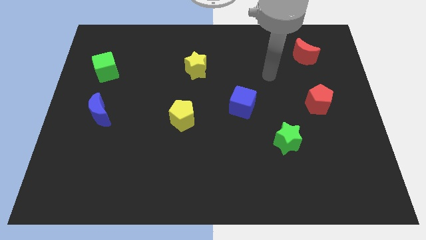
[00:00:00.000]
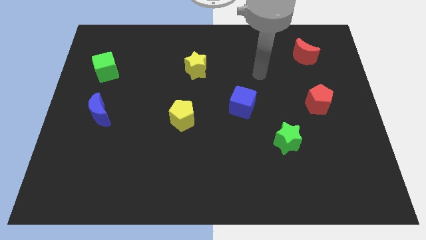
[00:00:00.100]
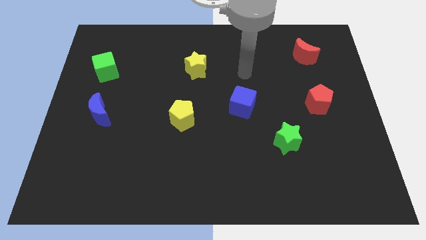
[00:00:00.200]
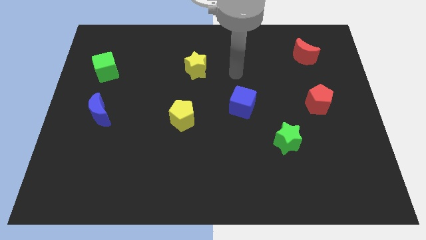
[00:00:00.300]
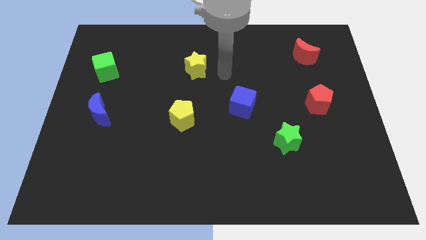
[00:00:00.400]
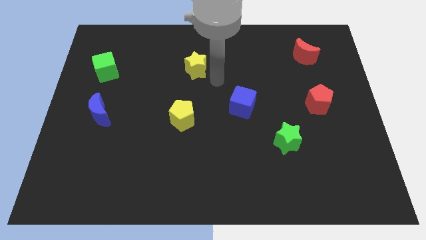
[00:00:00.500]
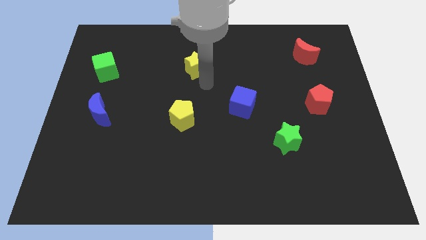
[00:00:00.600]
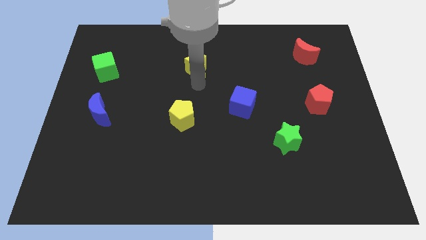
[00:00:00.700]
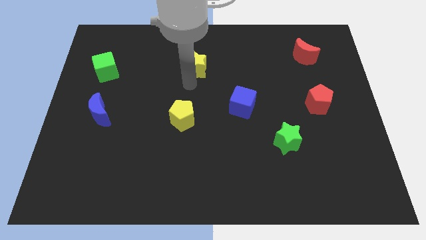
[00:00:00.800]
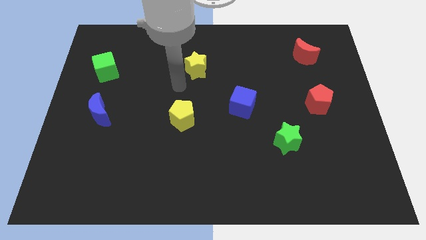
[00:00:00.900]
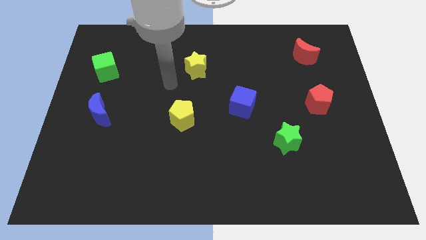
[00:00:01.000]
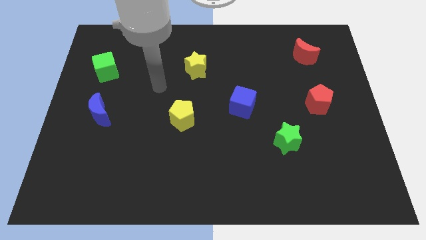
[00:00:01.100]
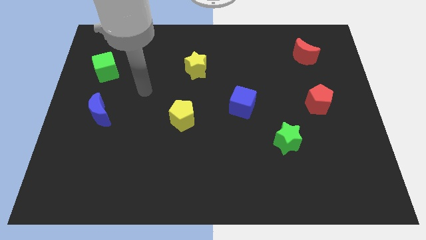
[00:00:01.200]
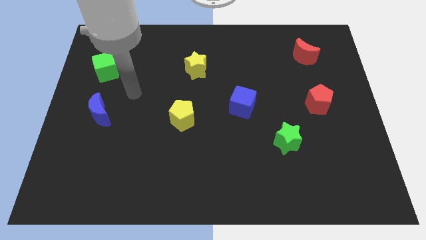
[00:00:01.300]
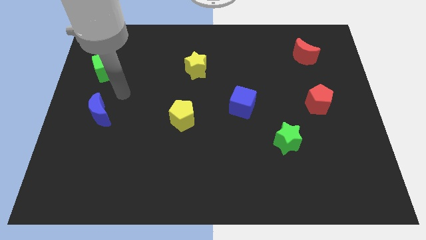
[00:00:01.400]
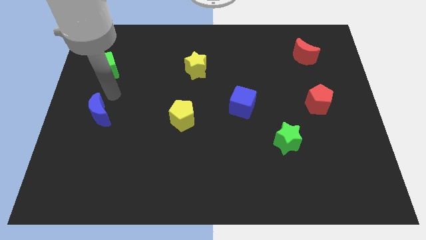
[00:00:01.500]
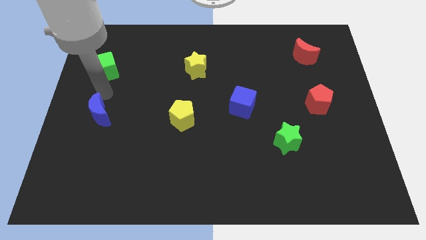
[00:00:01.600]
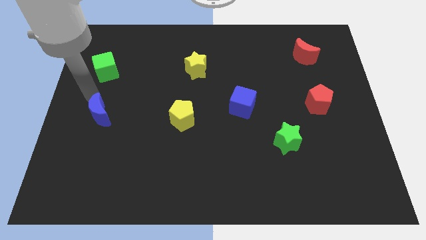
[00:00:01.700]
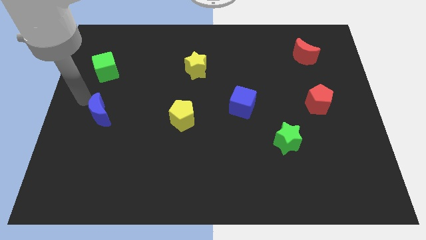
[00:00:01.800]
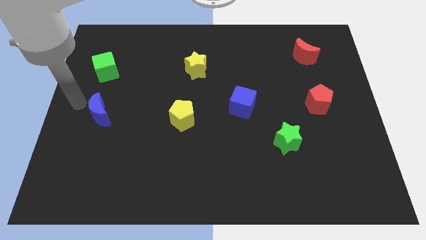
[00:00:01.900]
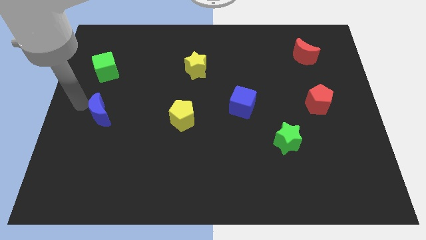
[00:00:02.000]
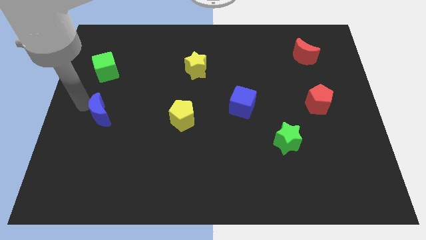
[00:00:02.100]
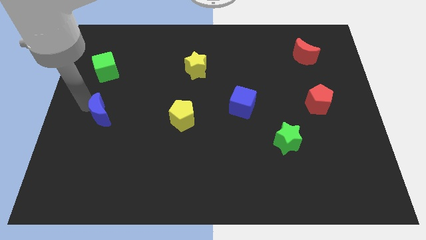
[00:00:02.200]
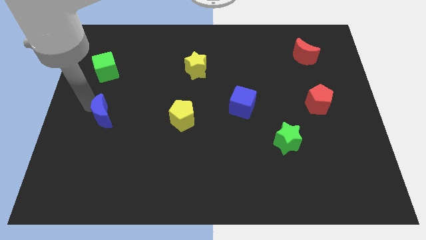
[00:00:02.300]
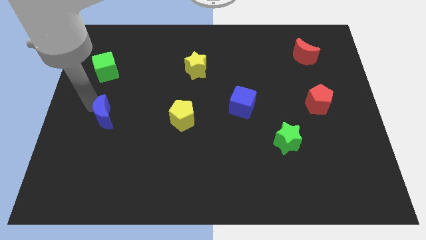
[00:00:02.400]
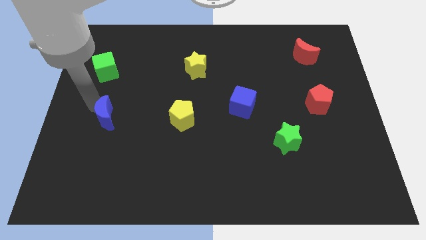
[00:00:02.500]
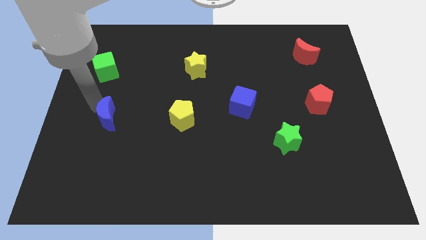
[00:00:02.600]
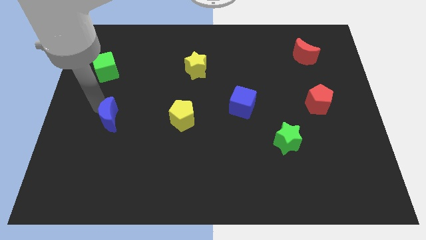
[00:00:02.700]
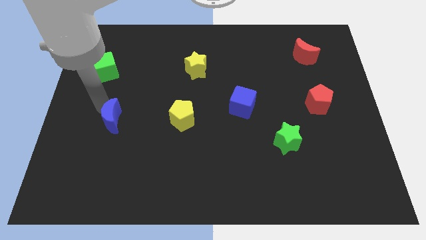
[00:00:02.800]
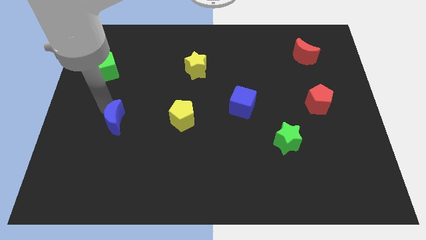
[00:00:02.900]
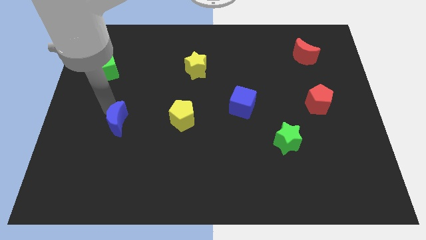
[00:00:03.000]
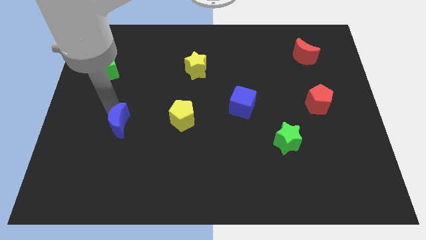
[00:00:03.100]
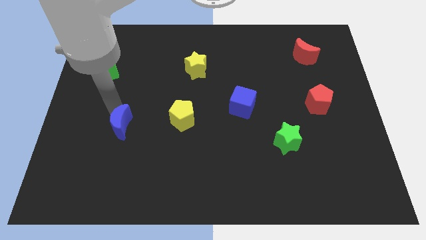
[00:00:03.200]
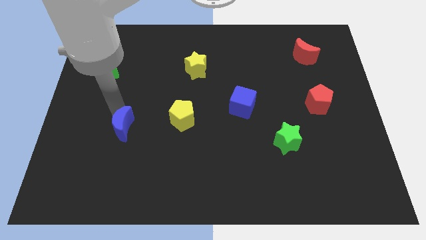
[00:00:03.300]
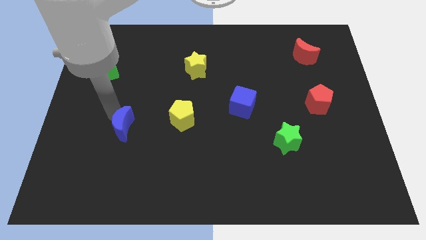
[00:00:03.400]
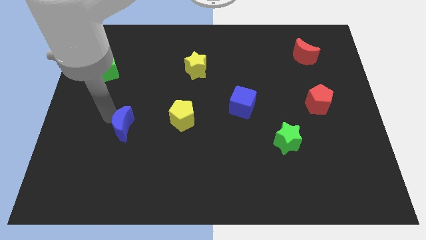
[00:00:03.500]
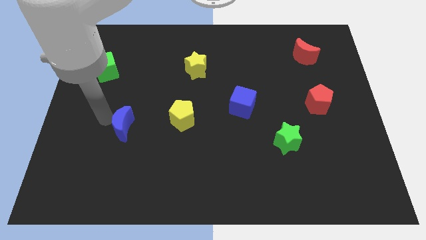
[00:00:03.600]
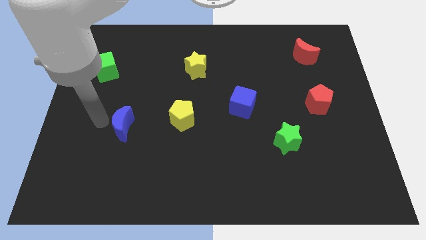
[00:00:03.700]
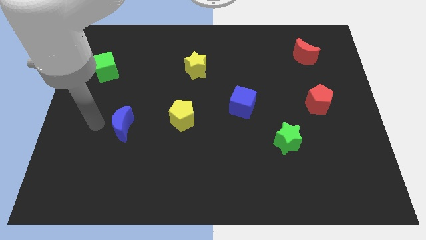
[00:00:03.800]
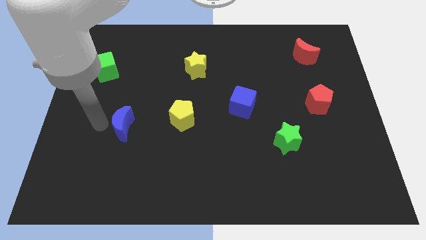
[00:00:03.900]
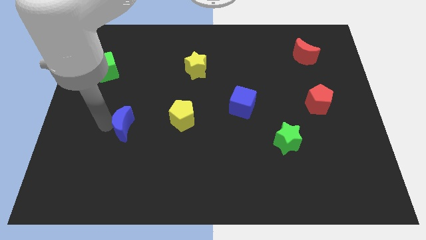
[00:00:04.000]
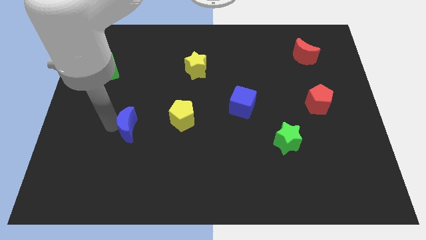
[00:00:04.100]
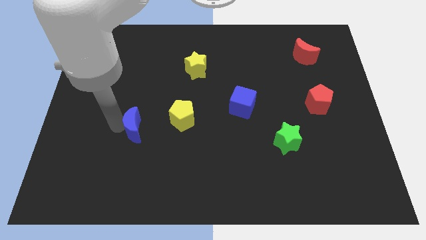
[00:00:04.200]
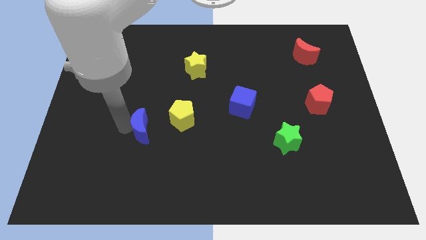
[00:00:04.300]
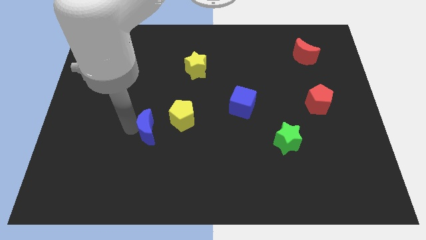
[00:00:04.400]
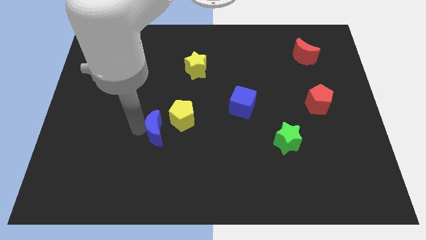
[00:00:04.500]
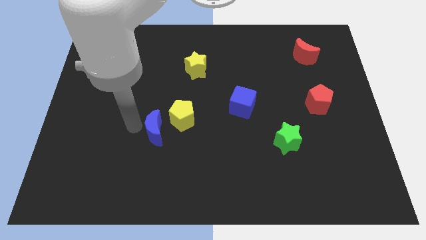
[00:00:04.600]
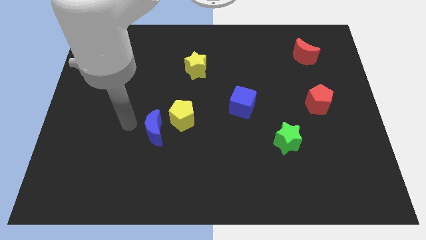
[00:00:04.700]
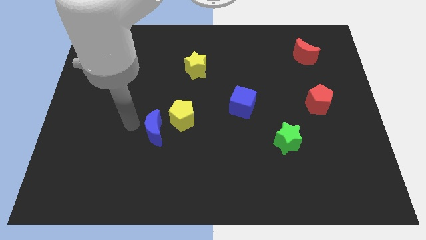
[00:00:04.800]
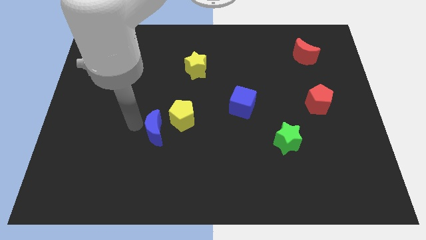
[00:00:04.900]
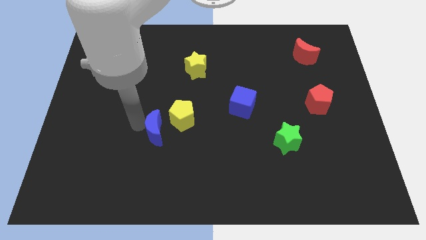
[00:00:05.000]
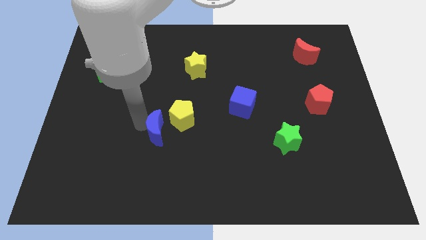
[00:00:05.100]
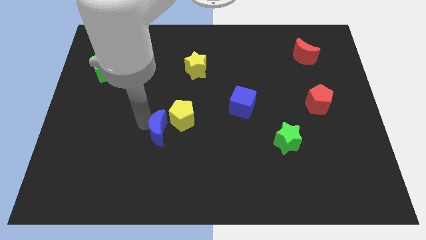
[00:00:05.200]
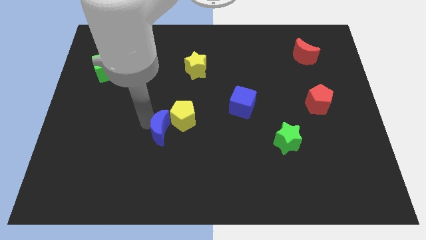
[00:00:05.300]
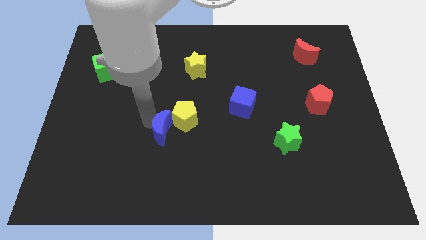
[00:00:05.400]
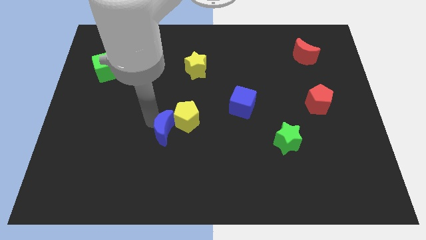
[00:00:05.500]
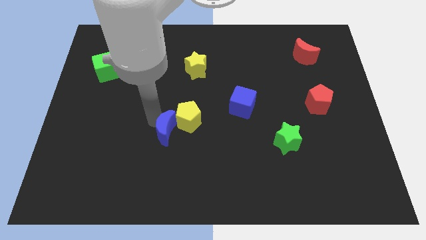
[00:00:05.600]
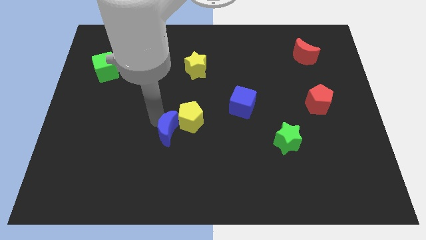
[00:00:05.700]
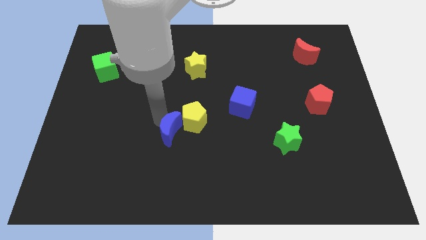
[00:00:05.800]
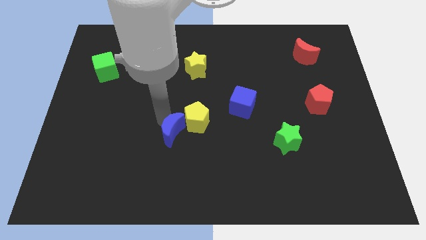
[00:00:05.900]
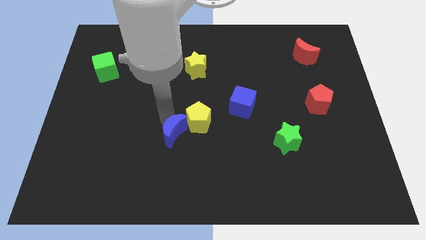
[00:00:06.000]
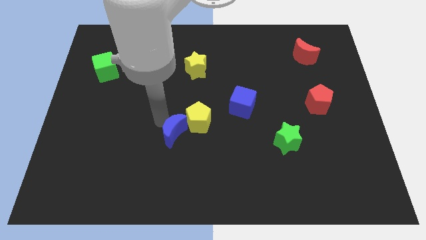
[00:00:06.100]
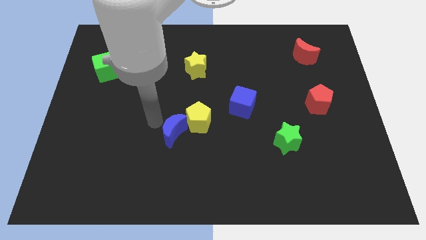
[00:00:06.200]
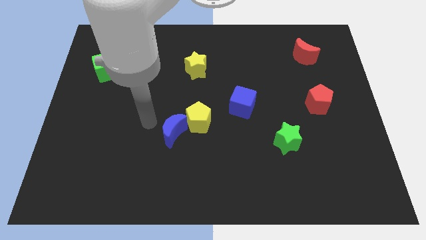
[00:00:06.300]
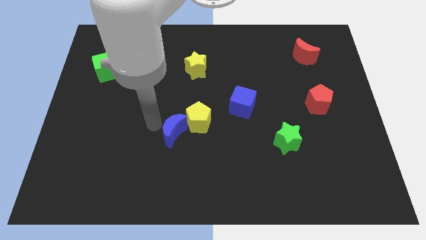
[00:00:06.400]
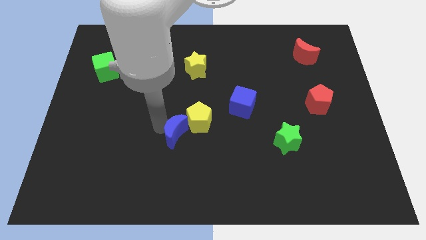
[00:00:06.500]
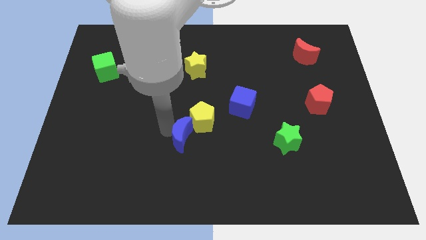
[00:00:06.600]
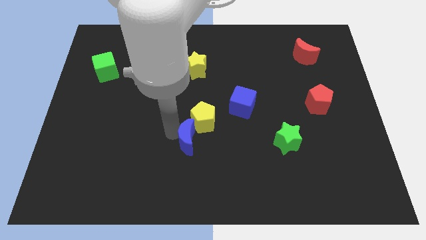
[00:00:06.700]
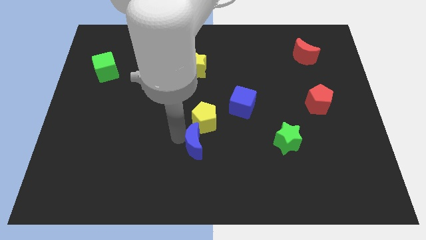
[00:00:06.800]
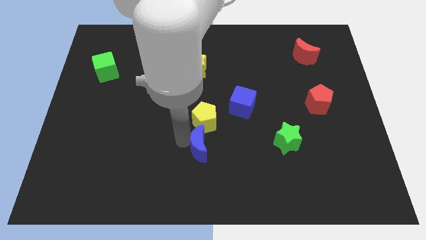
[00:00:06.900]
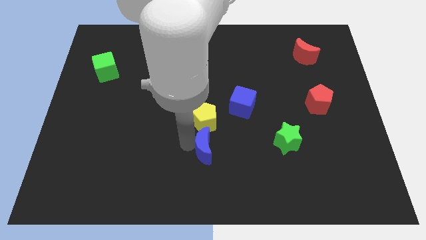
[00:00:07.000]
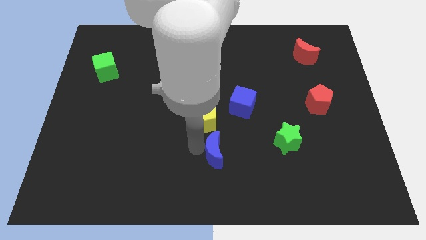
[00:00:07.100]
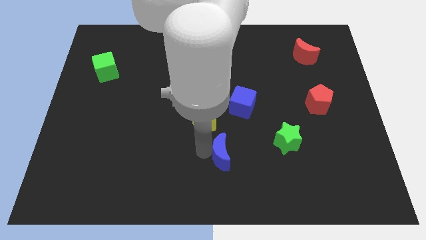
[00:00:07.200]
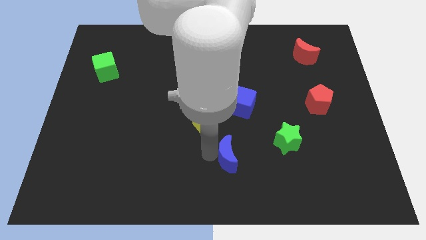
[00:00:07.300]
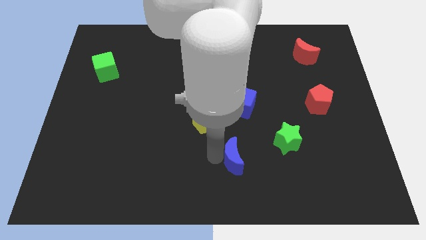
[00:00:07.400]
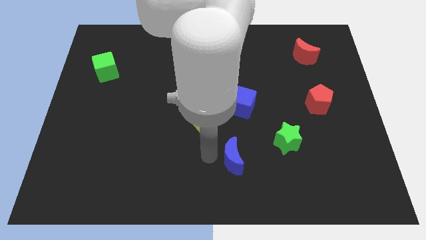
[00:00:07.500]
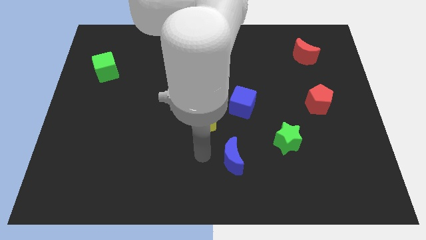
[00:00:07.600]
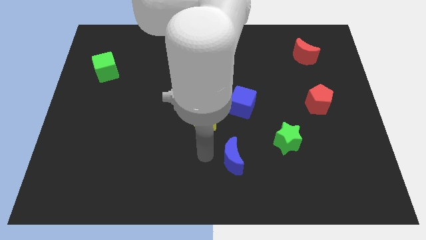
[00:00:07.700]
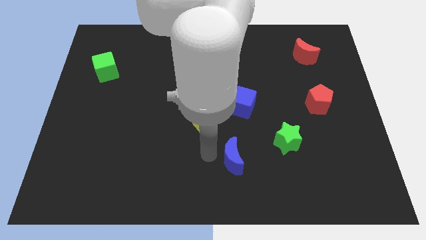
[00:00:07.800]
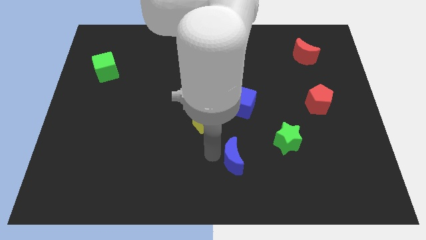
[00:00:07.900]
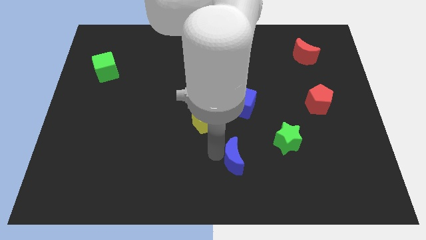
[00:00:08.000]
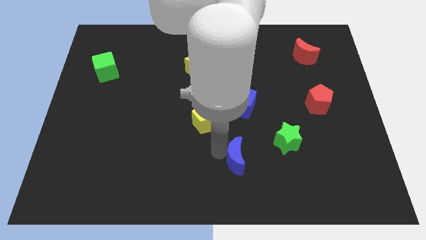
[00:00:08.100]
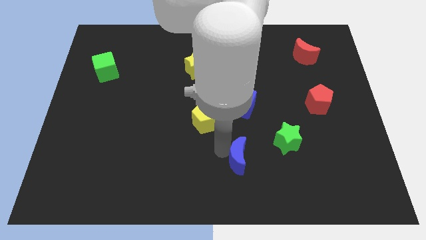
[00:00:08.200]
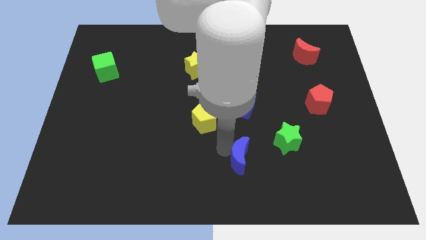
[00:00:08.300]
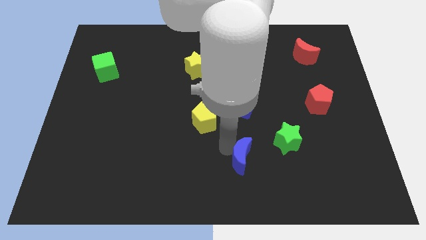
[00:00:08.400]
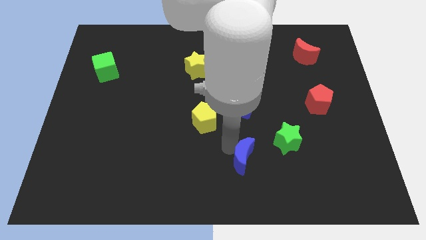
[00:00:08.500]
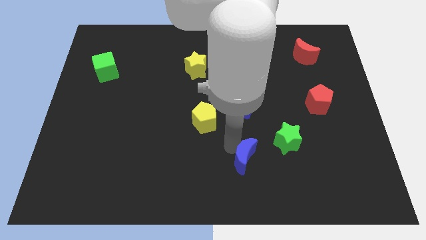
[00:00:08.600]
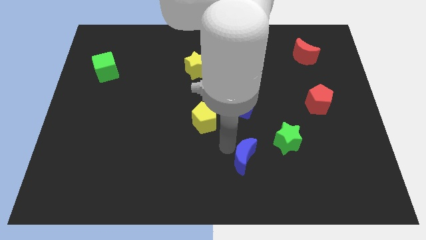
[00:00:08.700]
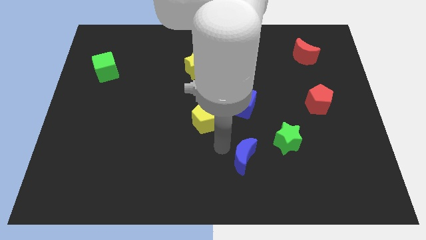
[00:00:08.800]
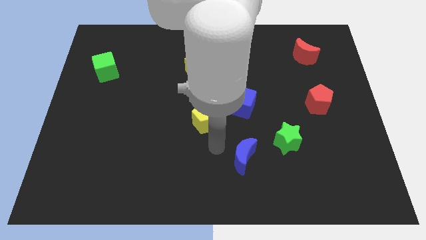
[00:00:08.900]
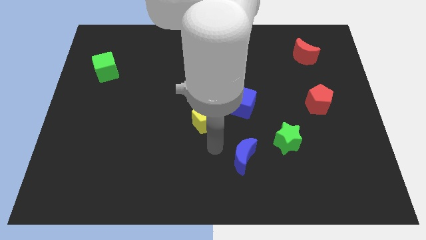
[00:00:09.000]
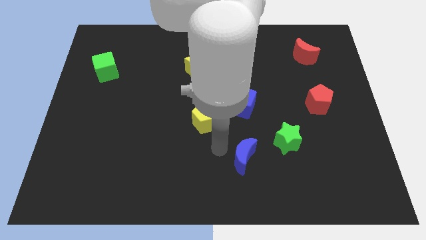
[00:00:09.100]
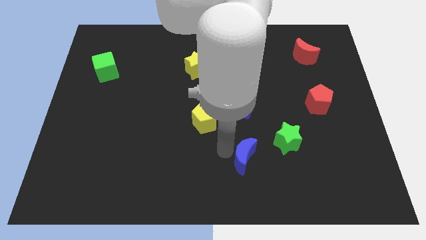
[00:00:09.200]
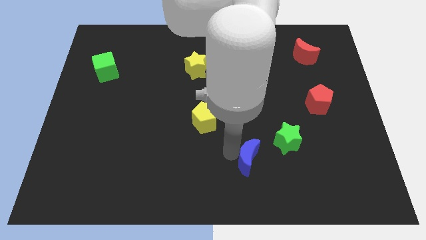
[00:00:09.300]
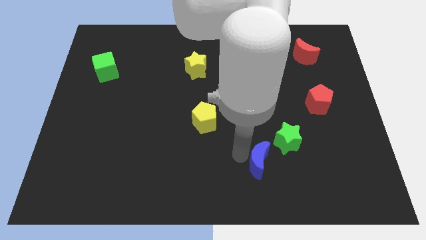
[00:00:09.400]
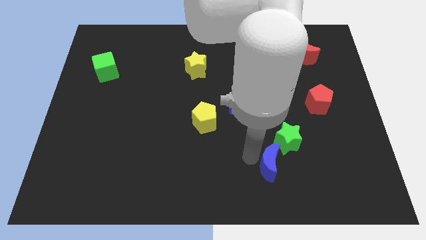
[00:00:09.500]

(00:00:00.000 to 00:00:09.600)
push the blue moon to the bottom of the green star
